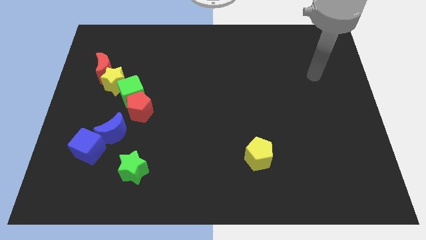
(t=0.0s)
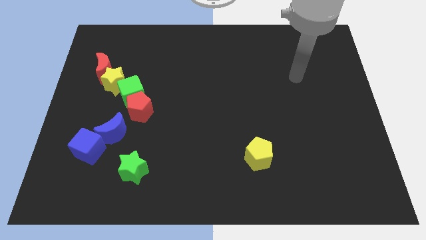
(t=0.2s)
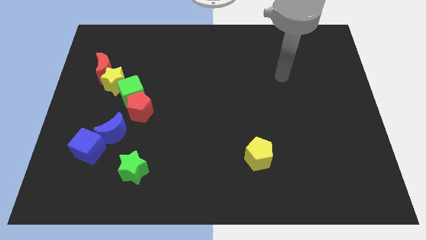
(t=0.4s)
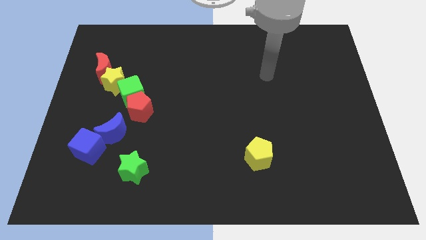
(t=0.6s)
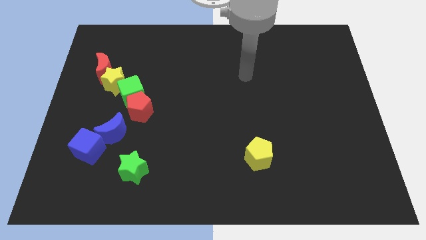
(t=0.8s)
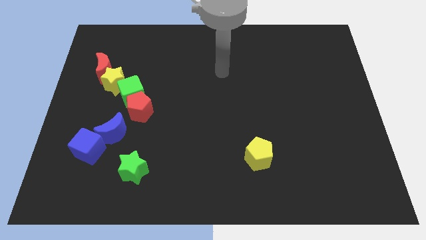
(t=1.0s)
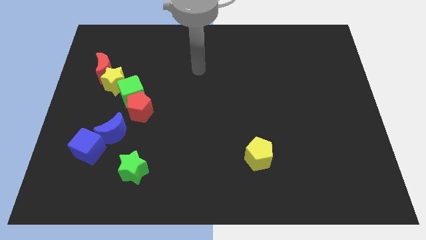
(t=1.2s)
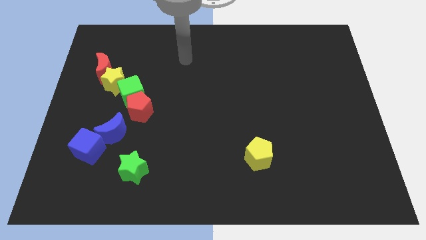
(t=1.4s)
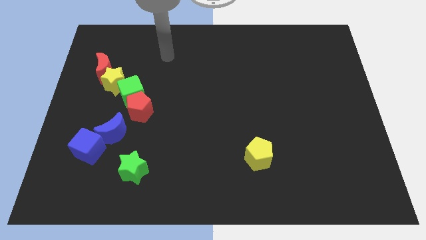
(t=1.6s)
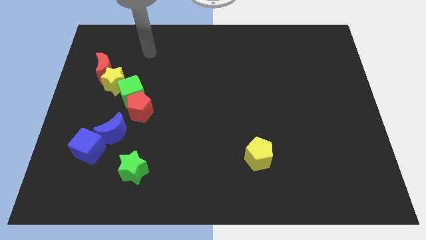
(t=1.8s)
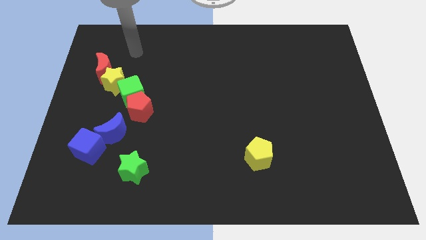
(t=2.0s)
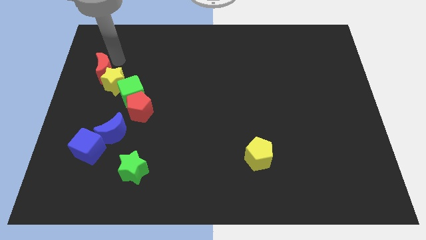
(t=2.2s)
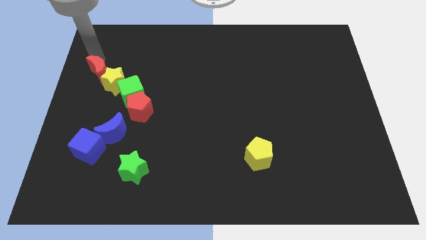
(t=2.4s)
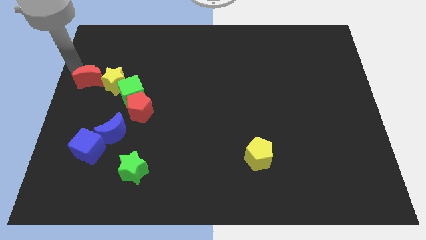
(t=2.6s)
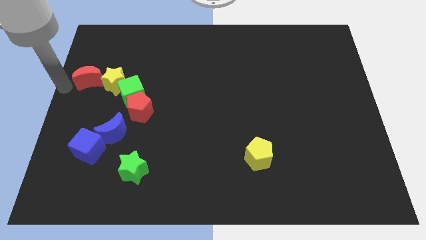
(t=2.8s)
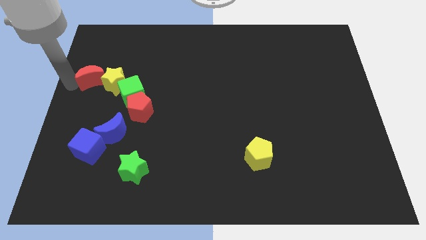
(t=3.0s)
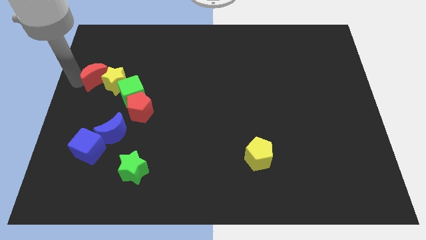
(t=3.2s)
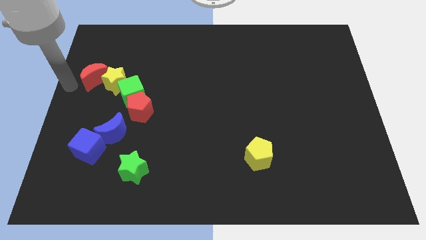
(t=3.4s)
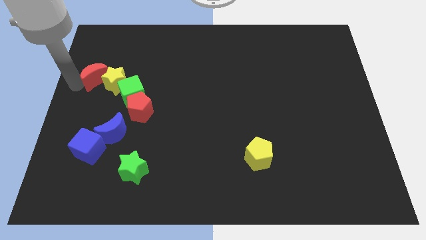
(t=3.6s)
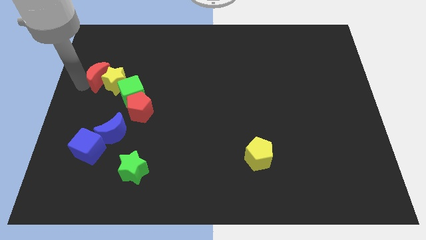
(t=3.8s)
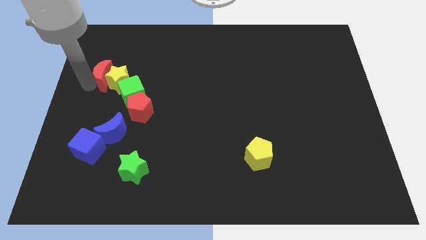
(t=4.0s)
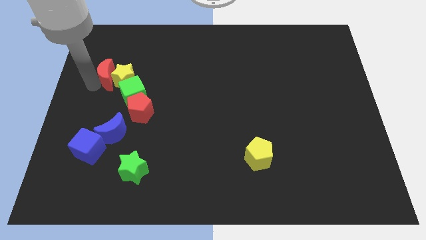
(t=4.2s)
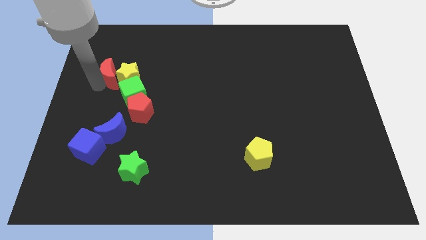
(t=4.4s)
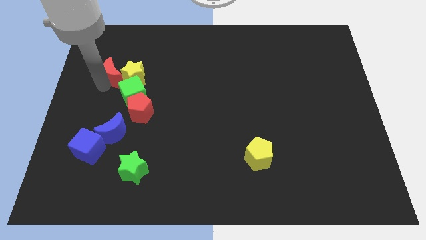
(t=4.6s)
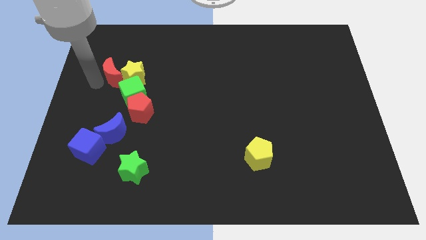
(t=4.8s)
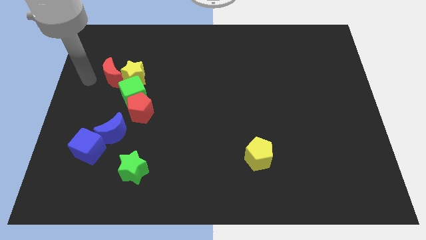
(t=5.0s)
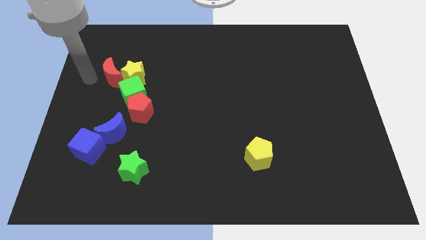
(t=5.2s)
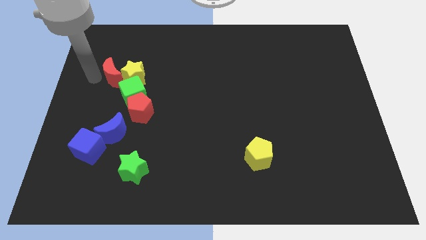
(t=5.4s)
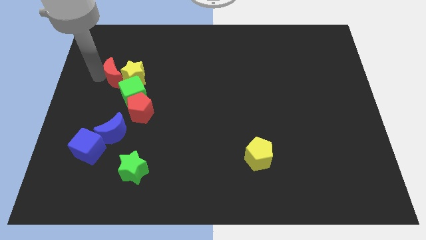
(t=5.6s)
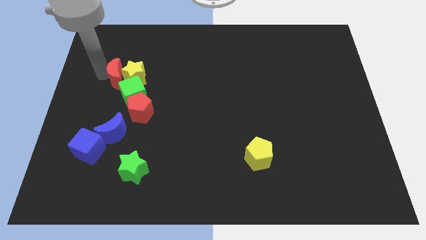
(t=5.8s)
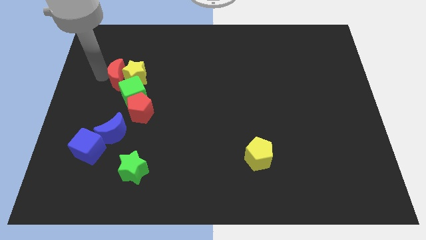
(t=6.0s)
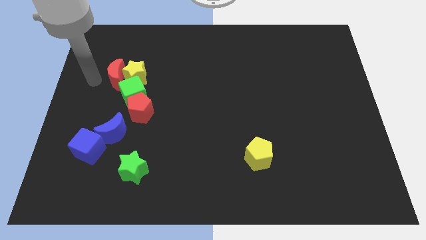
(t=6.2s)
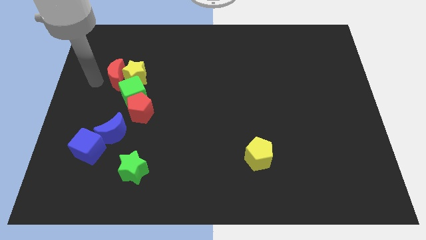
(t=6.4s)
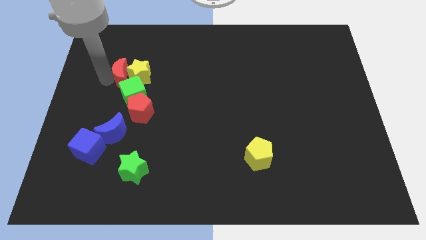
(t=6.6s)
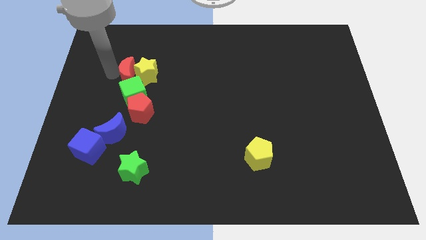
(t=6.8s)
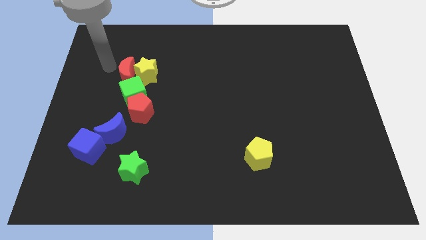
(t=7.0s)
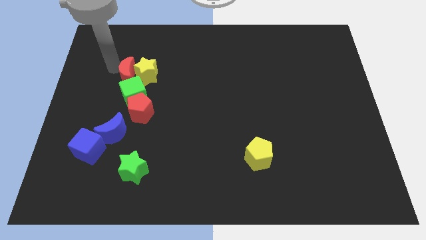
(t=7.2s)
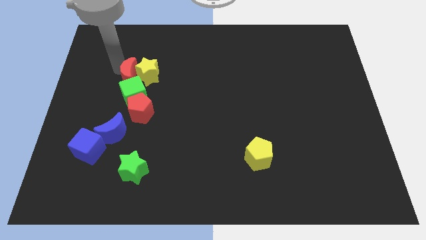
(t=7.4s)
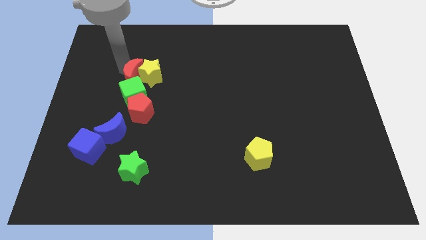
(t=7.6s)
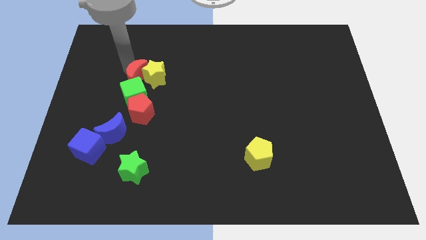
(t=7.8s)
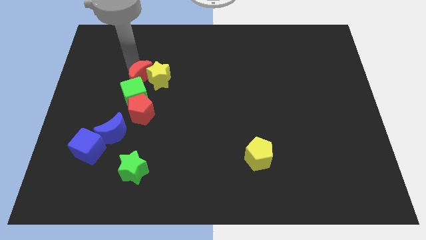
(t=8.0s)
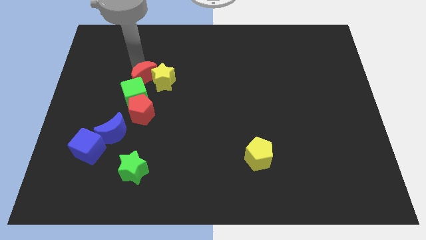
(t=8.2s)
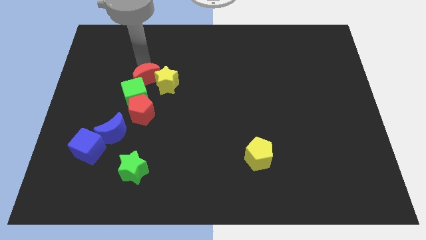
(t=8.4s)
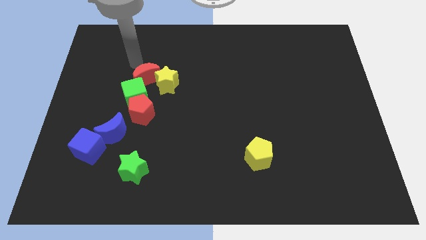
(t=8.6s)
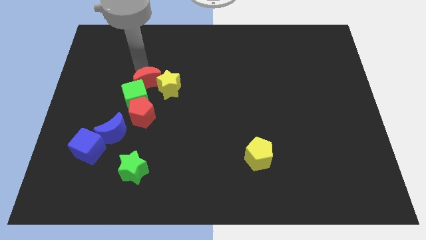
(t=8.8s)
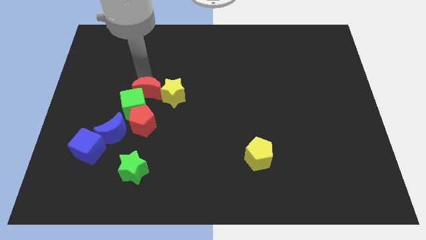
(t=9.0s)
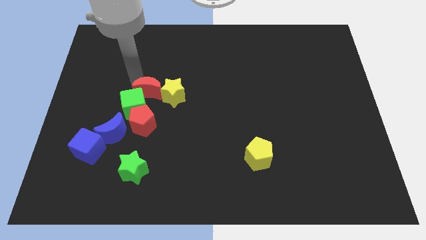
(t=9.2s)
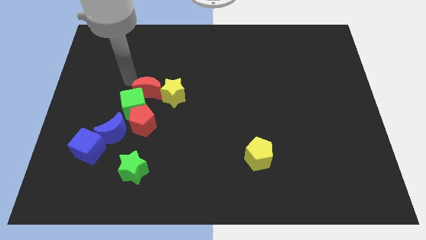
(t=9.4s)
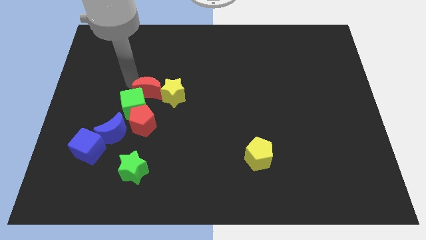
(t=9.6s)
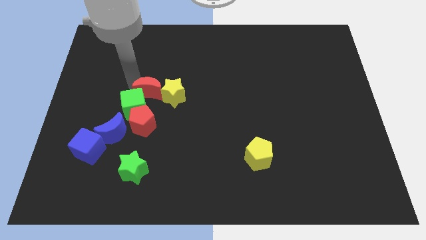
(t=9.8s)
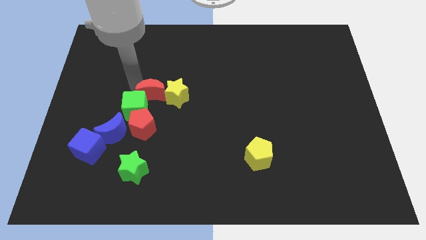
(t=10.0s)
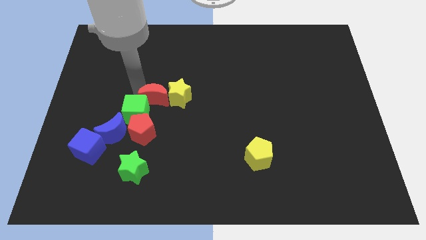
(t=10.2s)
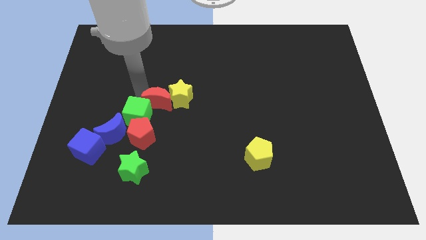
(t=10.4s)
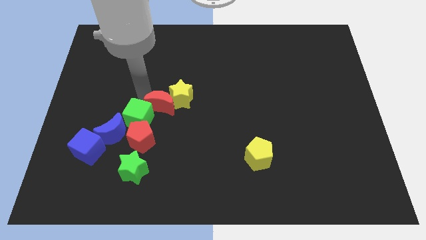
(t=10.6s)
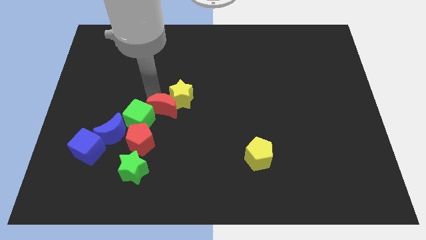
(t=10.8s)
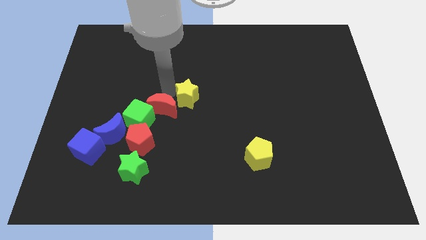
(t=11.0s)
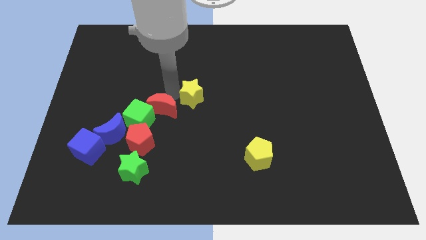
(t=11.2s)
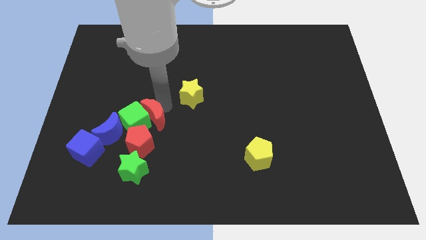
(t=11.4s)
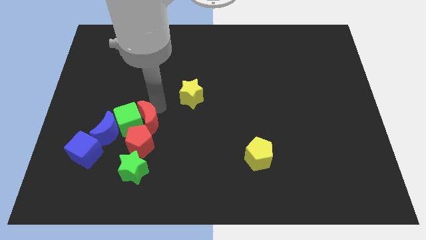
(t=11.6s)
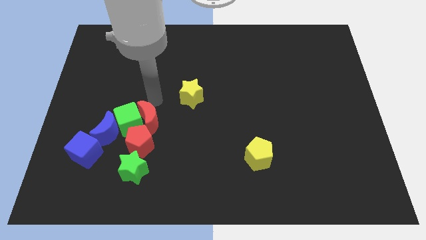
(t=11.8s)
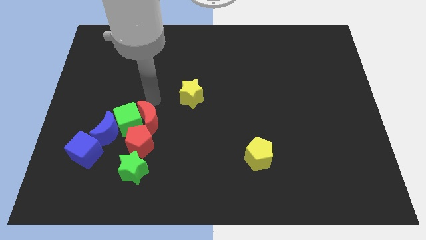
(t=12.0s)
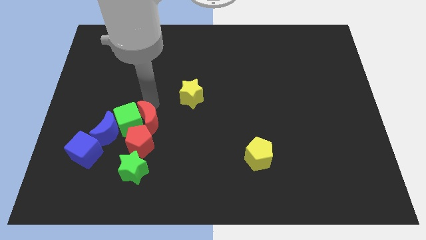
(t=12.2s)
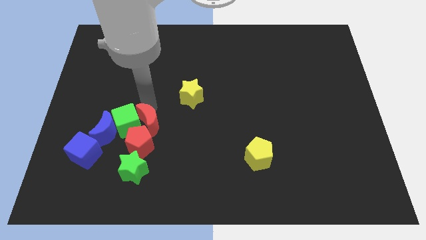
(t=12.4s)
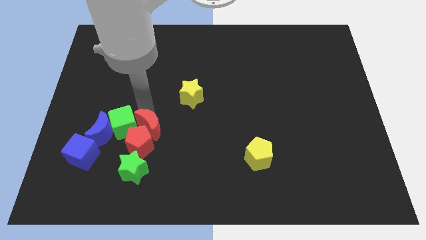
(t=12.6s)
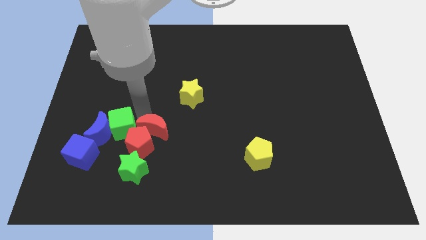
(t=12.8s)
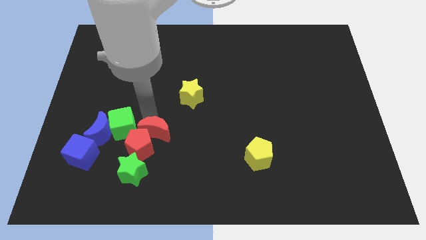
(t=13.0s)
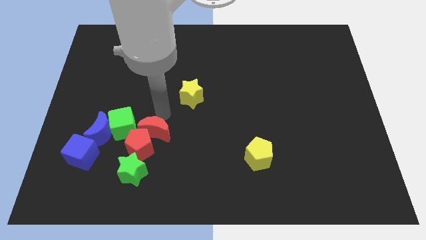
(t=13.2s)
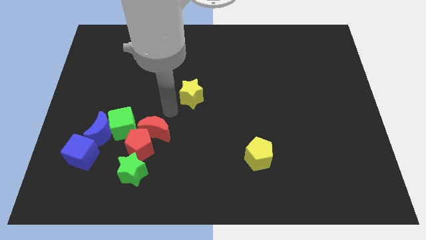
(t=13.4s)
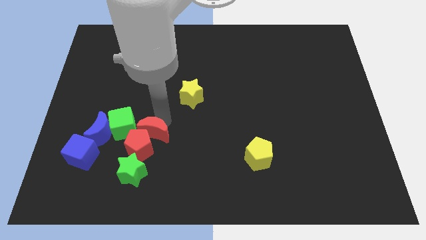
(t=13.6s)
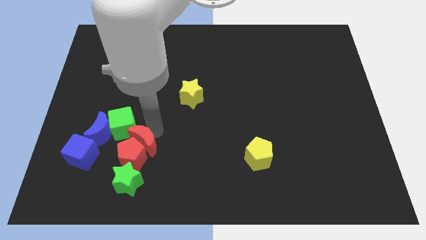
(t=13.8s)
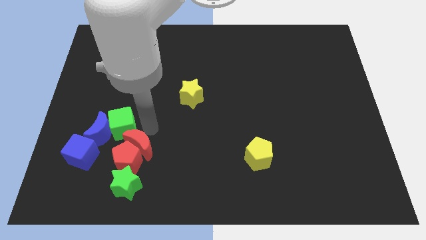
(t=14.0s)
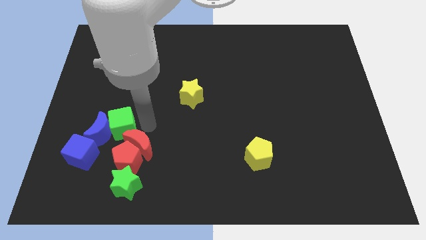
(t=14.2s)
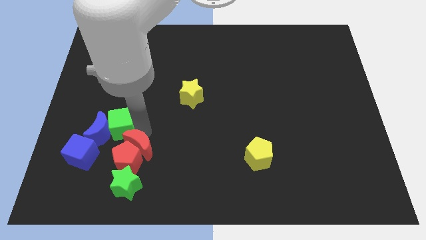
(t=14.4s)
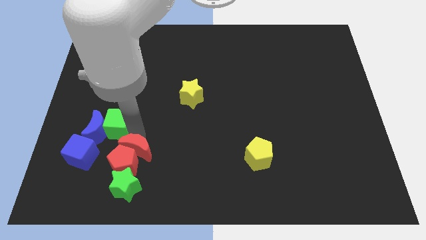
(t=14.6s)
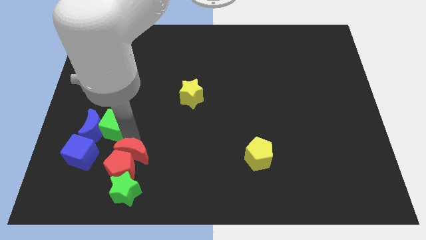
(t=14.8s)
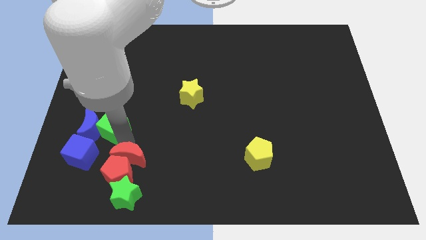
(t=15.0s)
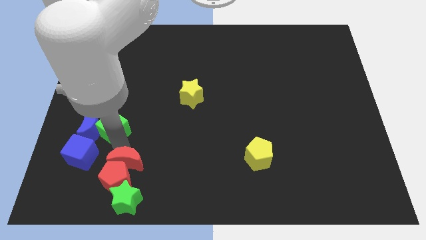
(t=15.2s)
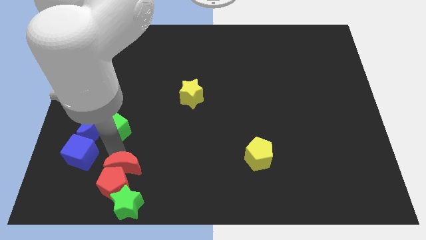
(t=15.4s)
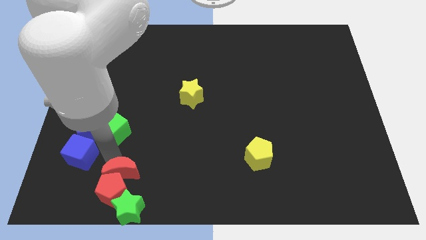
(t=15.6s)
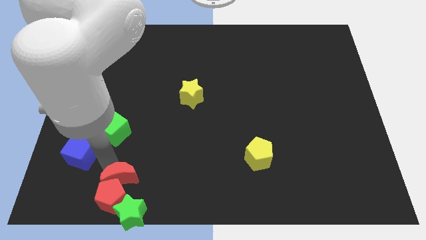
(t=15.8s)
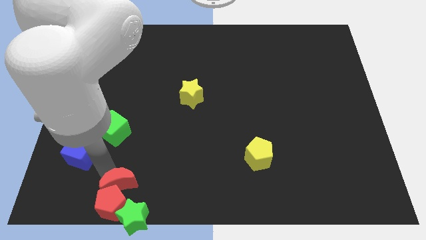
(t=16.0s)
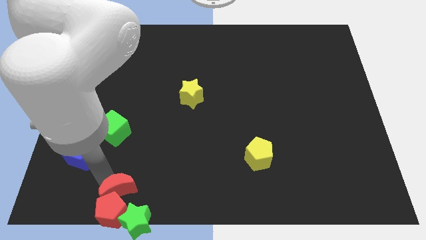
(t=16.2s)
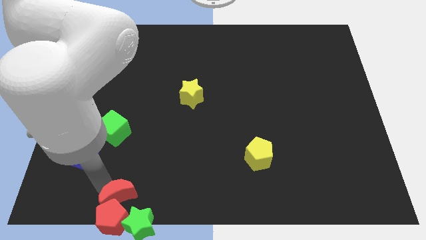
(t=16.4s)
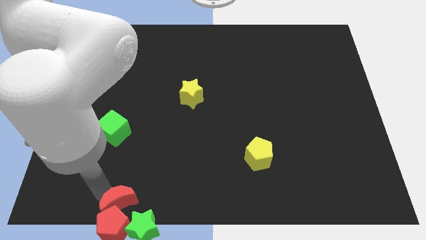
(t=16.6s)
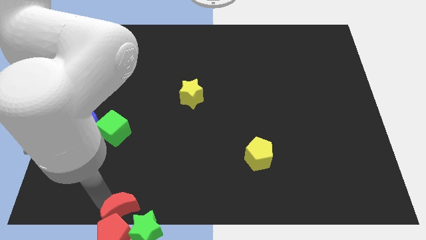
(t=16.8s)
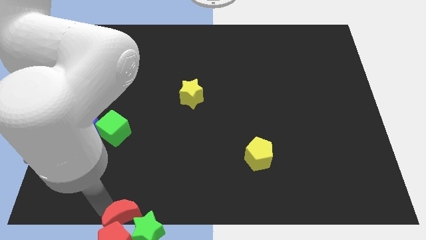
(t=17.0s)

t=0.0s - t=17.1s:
move the red moon towards the green star
